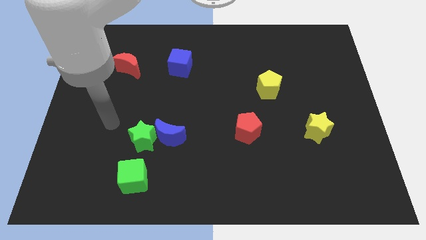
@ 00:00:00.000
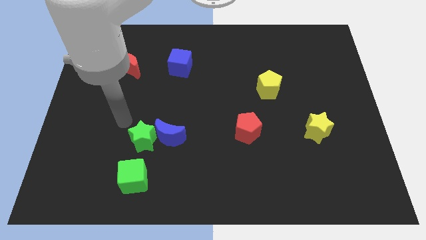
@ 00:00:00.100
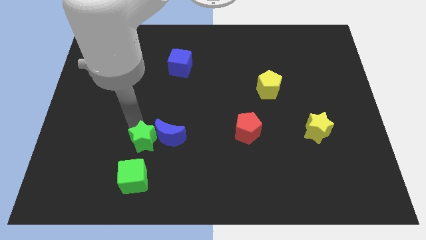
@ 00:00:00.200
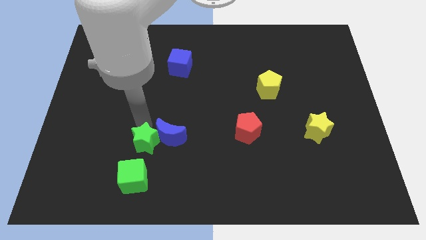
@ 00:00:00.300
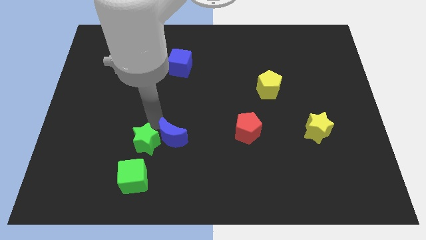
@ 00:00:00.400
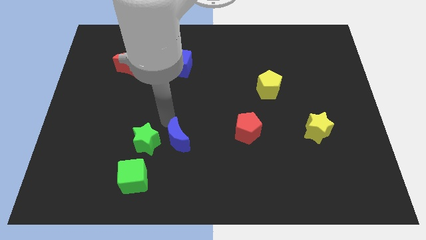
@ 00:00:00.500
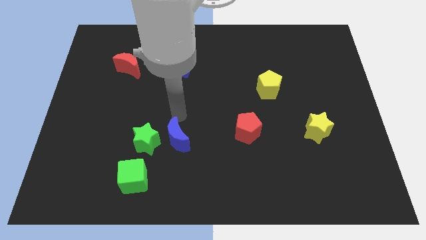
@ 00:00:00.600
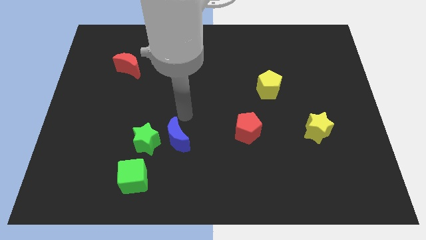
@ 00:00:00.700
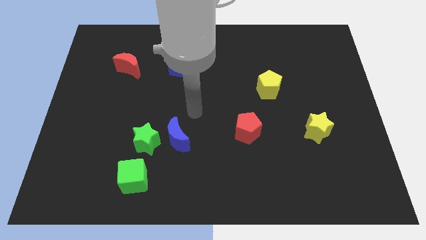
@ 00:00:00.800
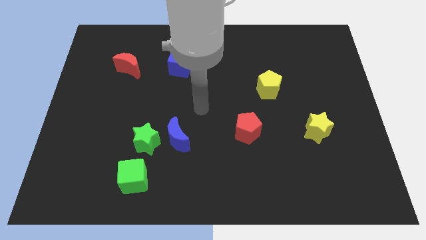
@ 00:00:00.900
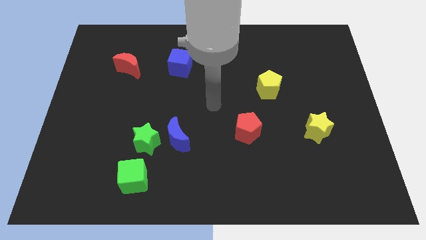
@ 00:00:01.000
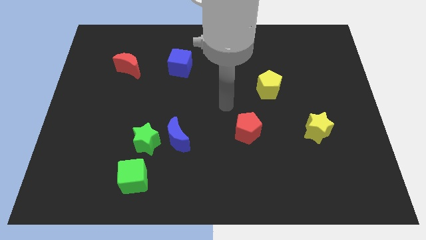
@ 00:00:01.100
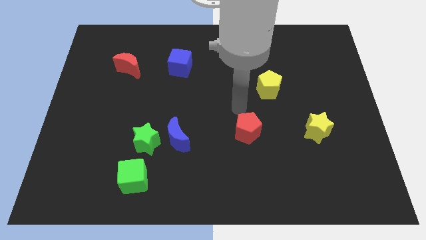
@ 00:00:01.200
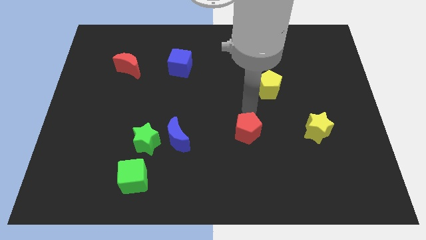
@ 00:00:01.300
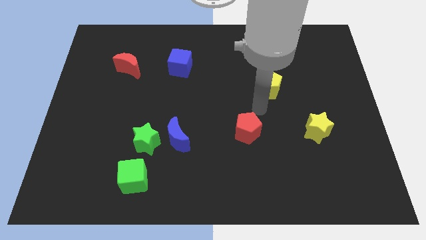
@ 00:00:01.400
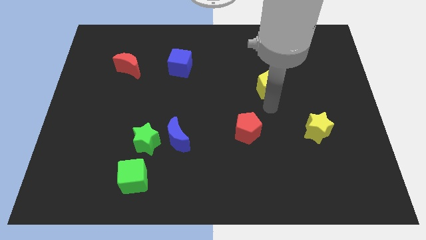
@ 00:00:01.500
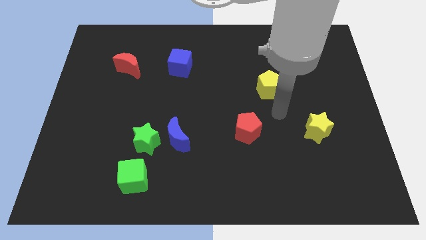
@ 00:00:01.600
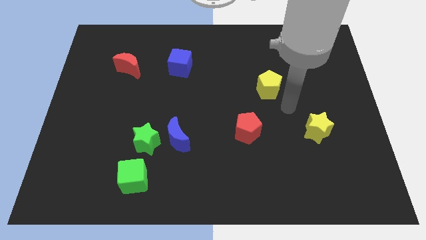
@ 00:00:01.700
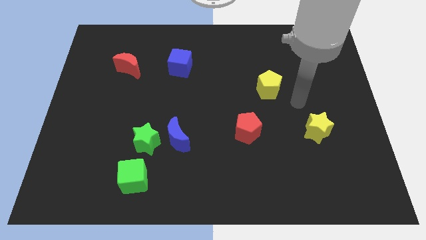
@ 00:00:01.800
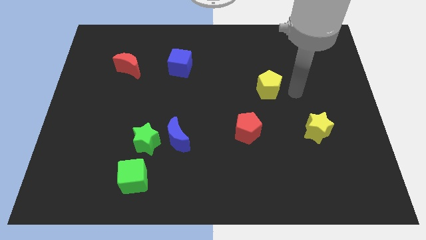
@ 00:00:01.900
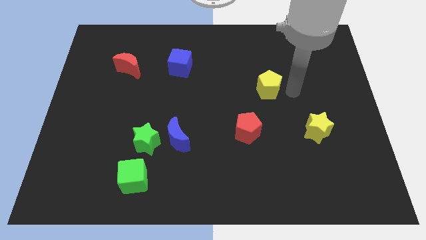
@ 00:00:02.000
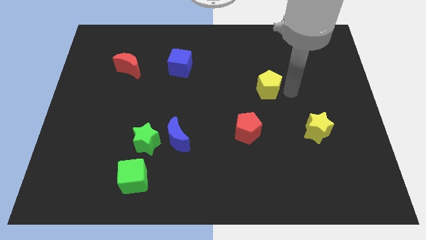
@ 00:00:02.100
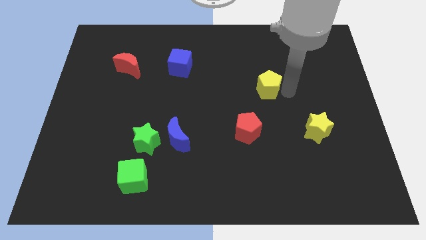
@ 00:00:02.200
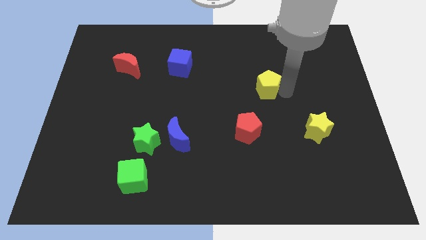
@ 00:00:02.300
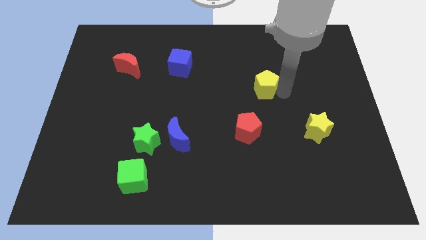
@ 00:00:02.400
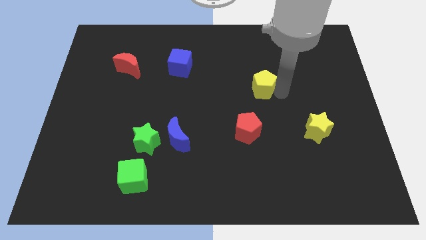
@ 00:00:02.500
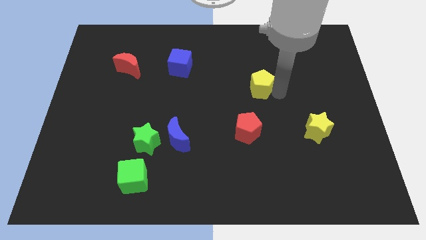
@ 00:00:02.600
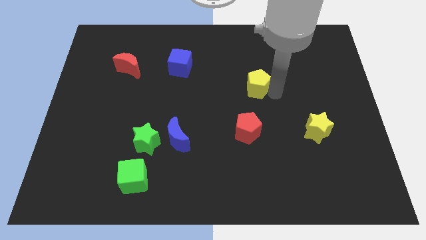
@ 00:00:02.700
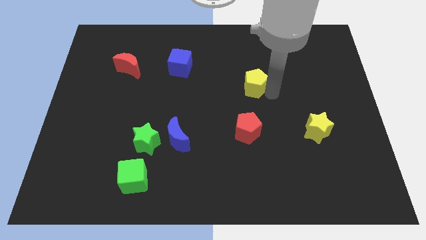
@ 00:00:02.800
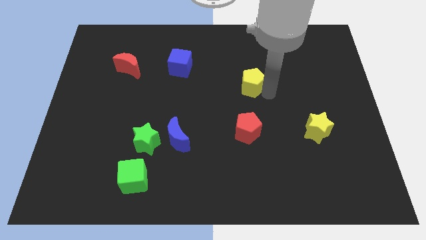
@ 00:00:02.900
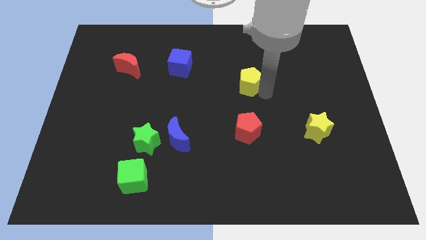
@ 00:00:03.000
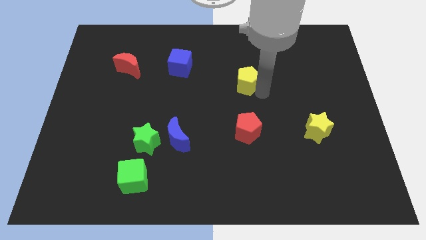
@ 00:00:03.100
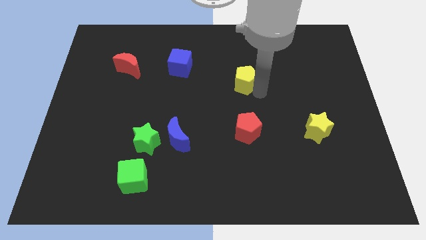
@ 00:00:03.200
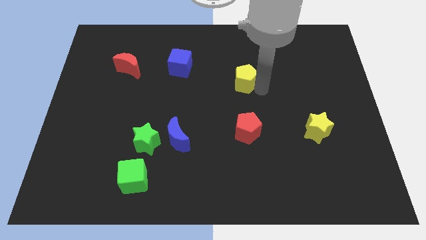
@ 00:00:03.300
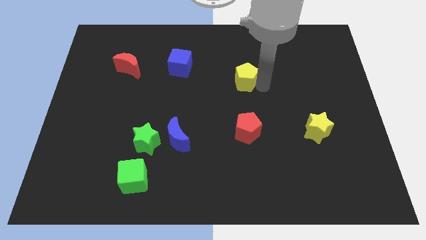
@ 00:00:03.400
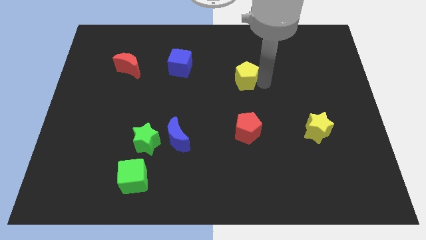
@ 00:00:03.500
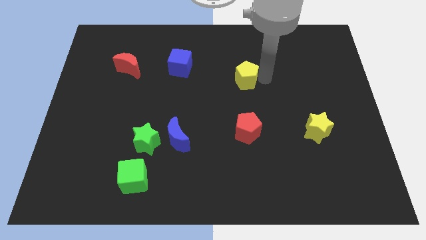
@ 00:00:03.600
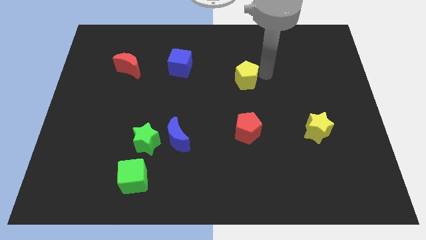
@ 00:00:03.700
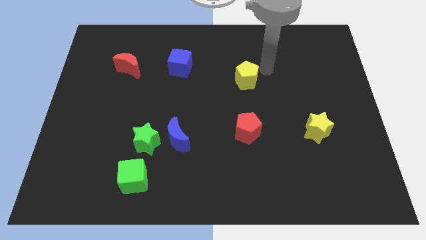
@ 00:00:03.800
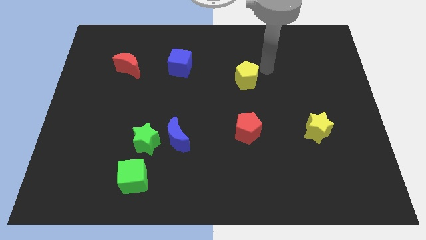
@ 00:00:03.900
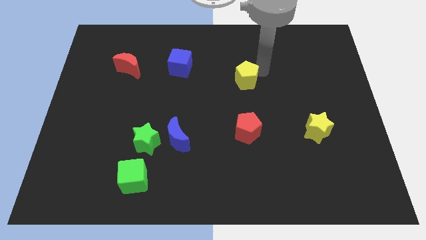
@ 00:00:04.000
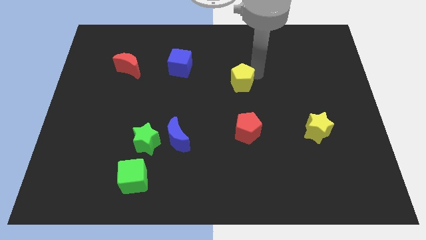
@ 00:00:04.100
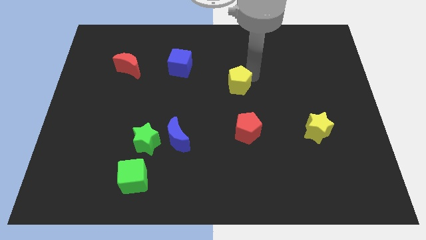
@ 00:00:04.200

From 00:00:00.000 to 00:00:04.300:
slide the yellow pentagon slightly to the left

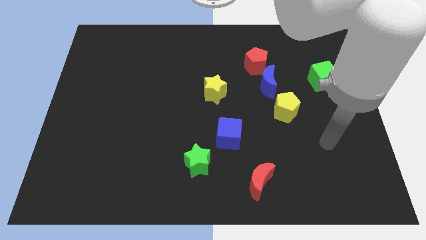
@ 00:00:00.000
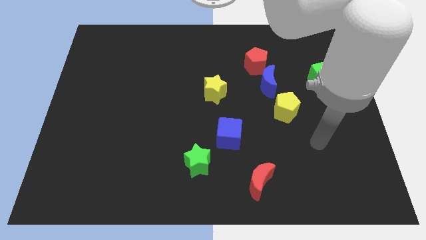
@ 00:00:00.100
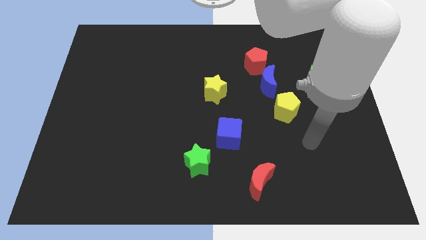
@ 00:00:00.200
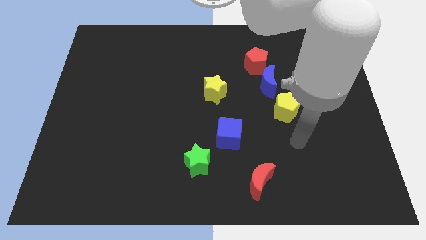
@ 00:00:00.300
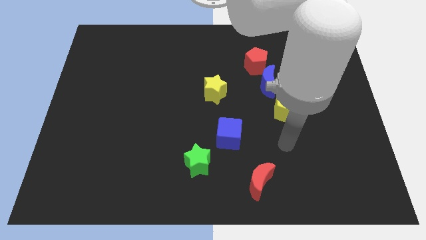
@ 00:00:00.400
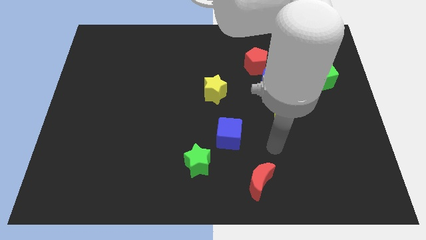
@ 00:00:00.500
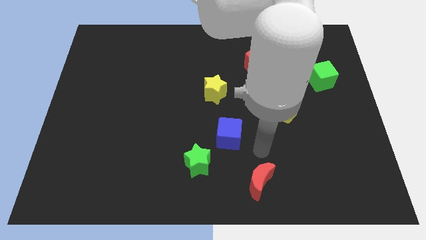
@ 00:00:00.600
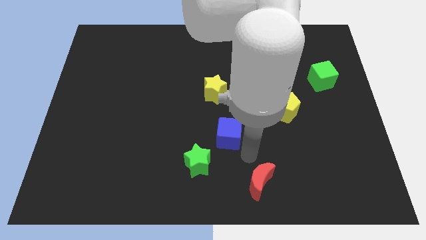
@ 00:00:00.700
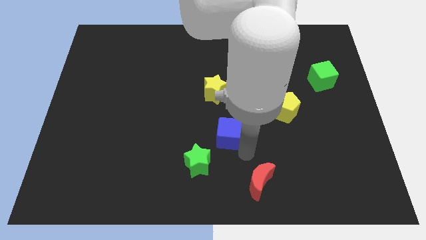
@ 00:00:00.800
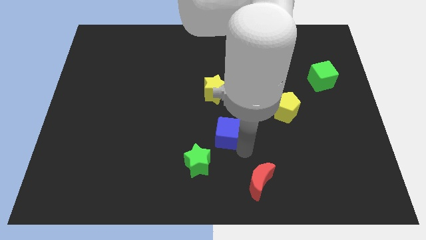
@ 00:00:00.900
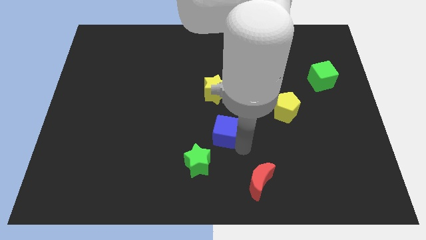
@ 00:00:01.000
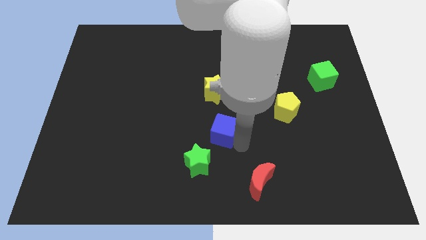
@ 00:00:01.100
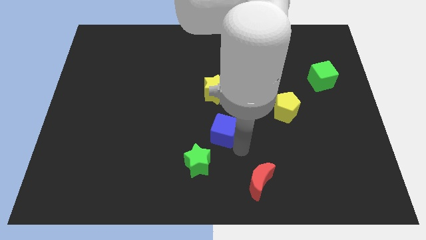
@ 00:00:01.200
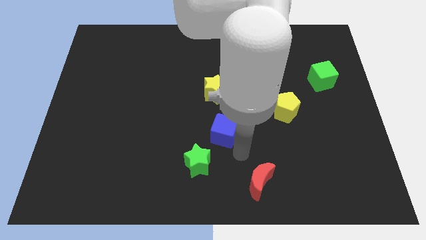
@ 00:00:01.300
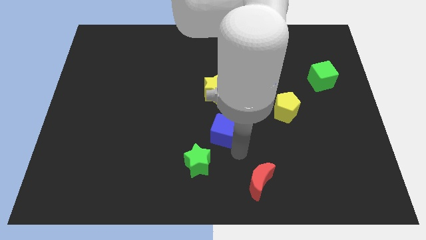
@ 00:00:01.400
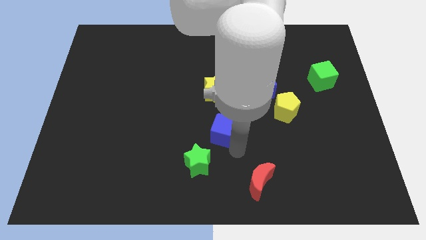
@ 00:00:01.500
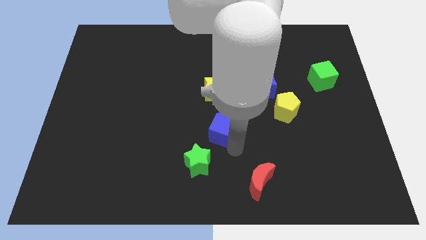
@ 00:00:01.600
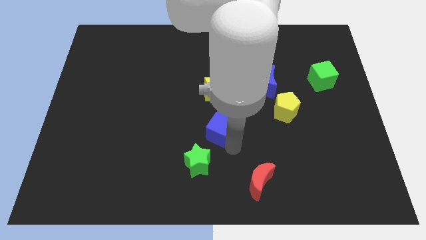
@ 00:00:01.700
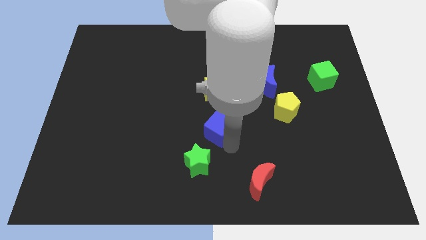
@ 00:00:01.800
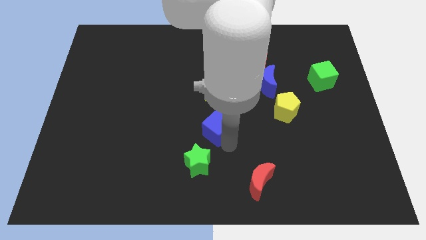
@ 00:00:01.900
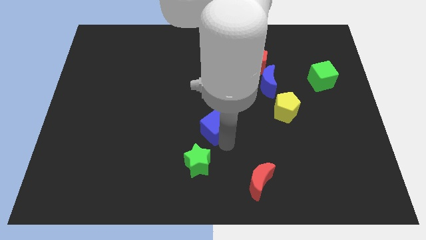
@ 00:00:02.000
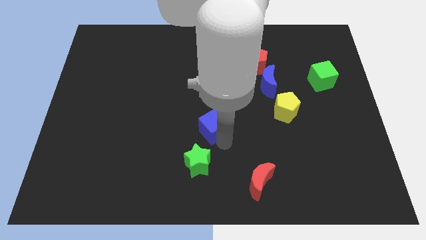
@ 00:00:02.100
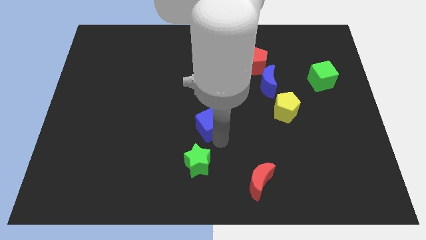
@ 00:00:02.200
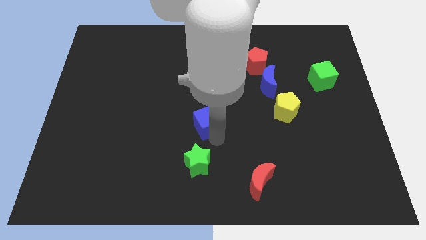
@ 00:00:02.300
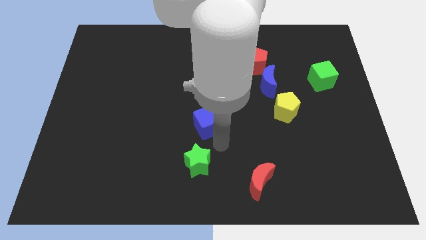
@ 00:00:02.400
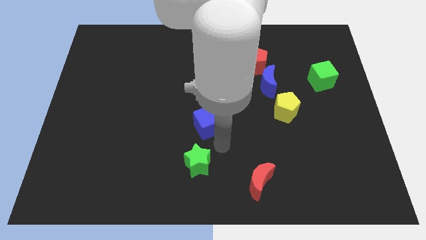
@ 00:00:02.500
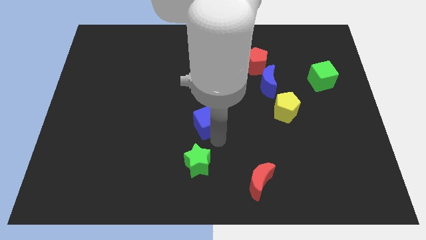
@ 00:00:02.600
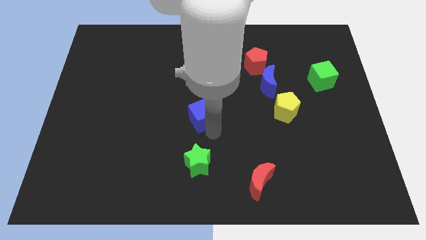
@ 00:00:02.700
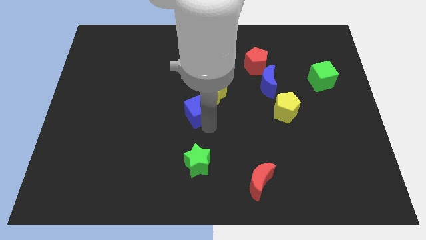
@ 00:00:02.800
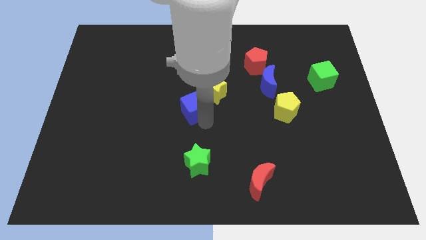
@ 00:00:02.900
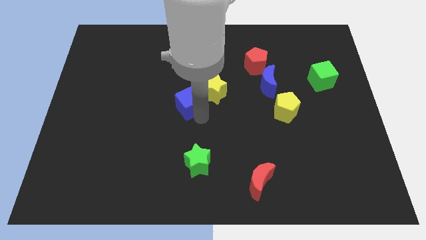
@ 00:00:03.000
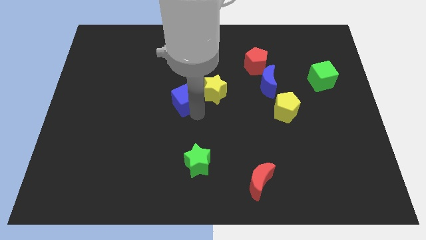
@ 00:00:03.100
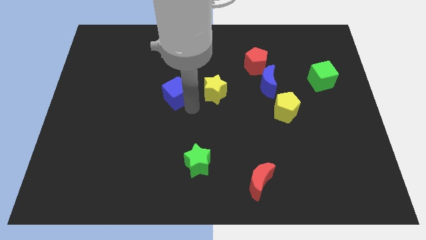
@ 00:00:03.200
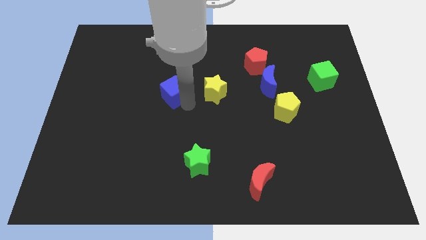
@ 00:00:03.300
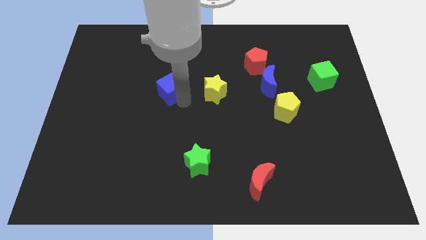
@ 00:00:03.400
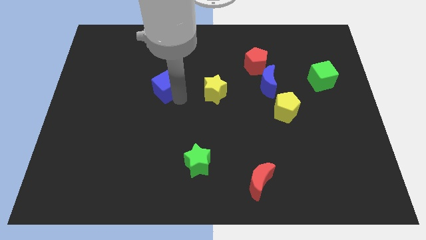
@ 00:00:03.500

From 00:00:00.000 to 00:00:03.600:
move the blue cube upwards and left

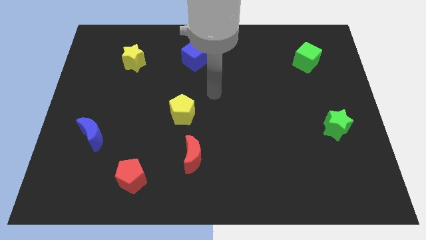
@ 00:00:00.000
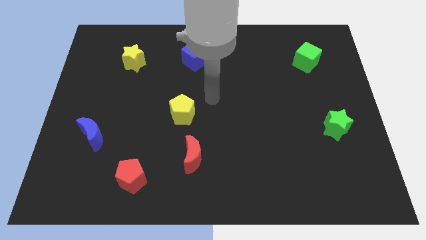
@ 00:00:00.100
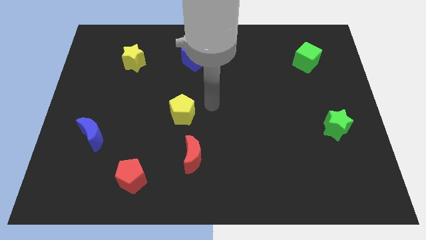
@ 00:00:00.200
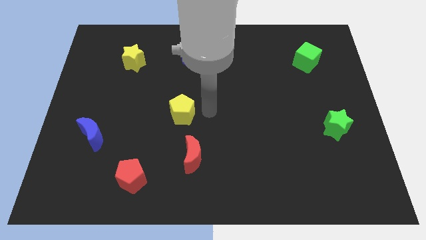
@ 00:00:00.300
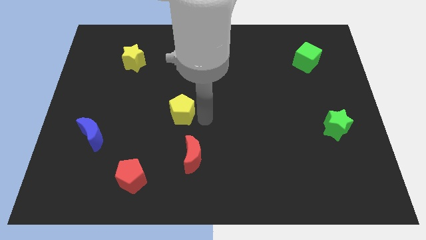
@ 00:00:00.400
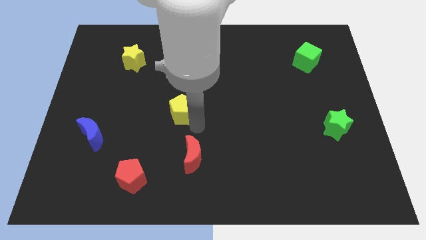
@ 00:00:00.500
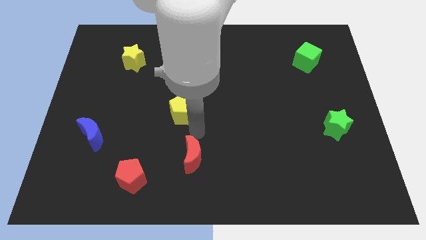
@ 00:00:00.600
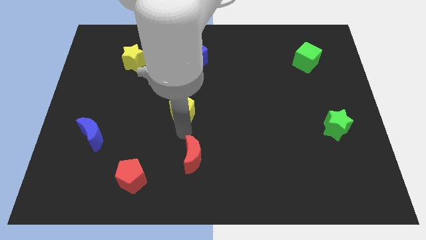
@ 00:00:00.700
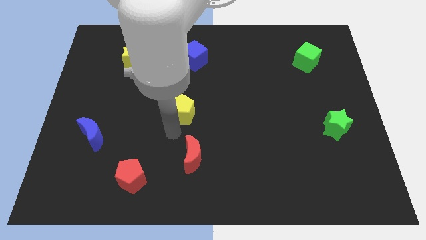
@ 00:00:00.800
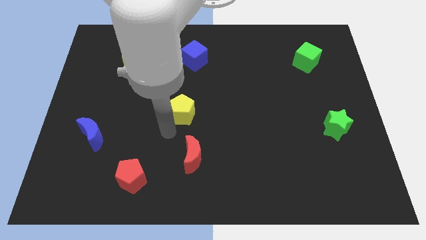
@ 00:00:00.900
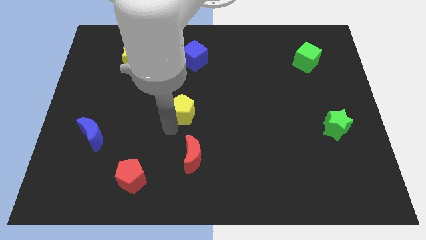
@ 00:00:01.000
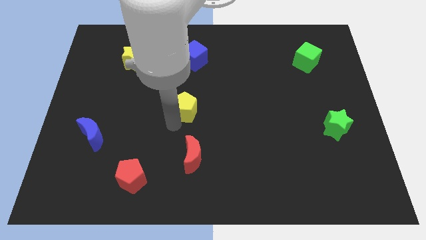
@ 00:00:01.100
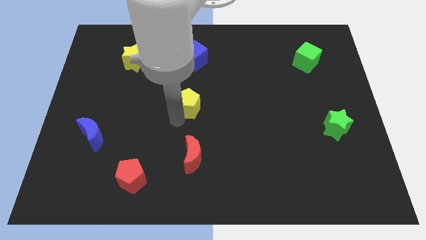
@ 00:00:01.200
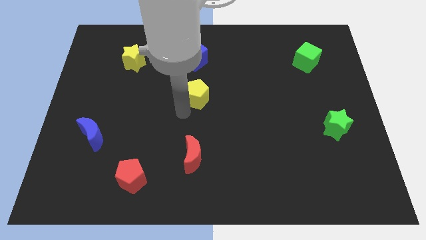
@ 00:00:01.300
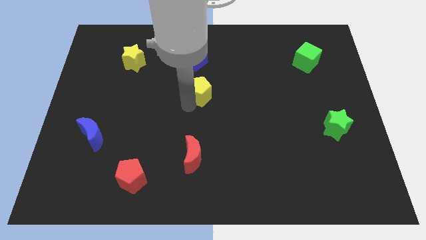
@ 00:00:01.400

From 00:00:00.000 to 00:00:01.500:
slide the yellow pentagon upwards and to the right somewhat
